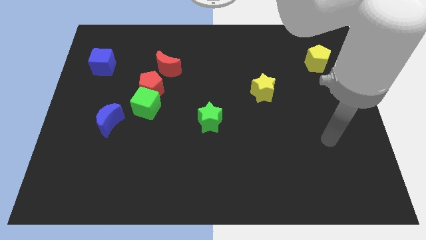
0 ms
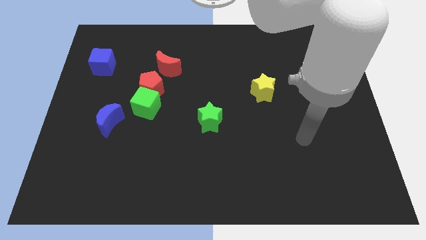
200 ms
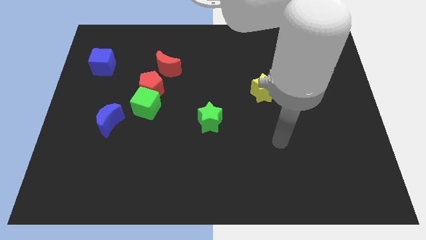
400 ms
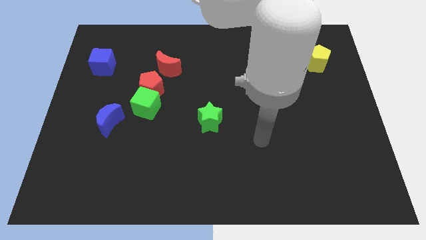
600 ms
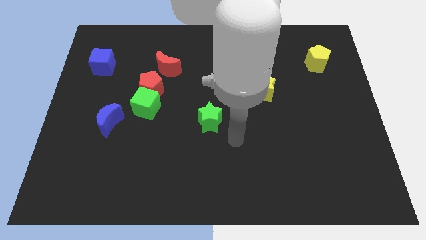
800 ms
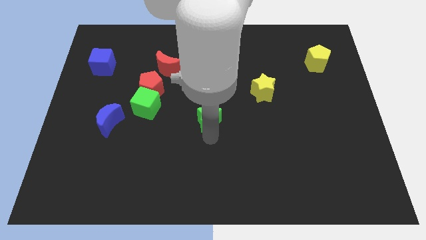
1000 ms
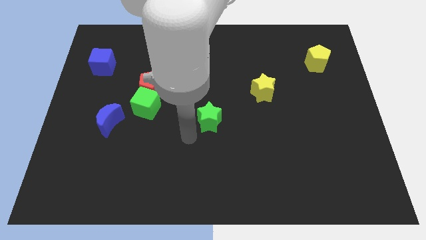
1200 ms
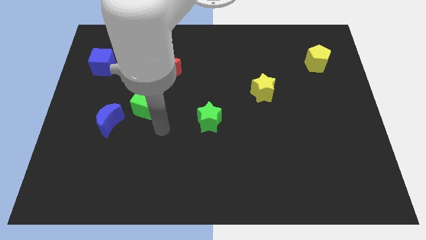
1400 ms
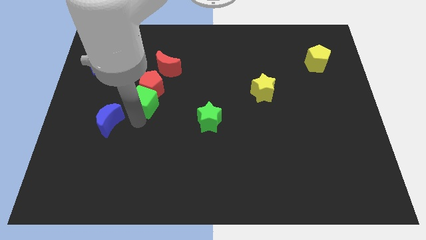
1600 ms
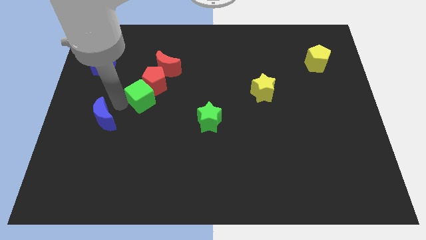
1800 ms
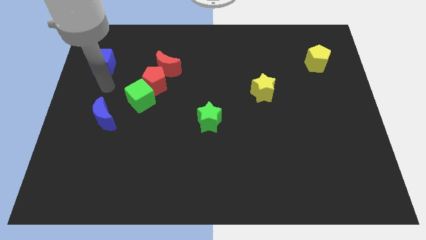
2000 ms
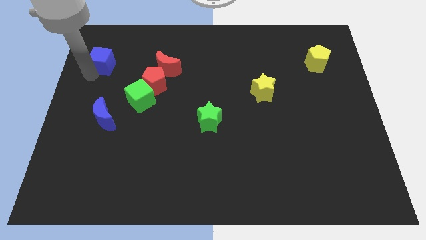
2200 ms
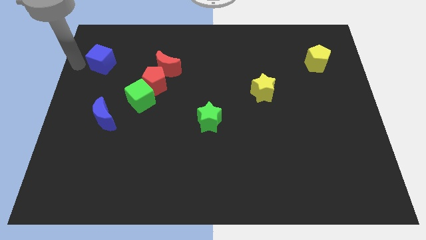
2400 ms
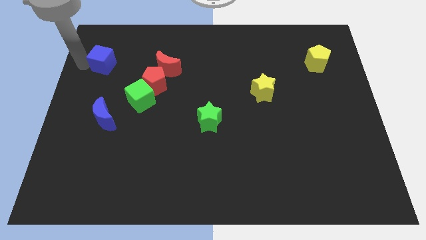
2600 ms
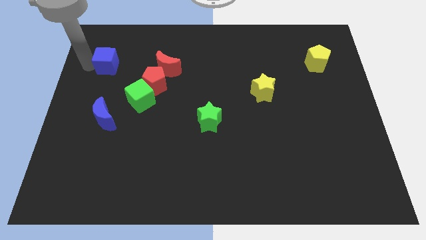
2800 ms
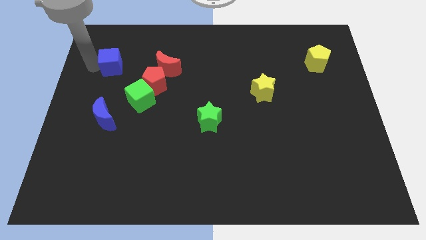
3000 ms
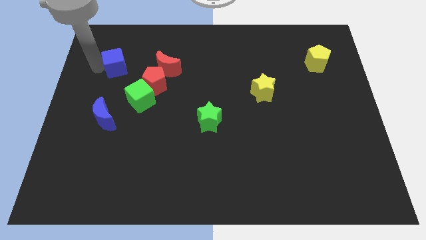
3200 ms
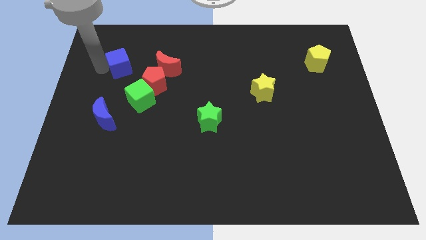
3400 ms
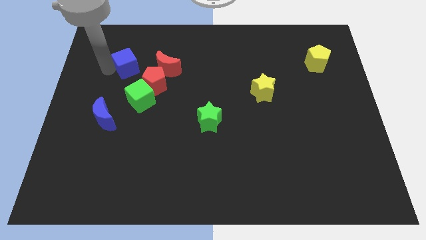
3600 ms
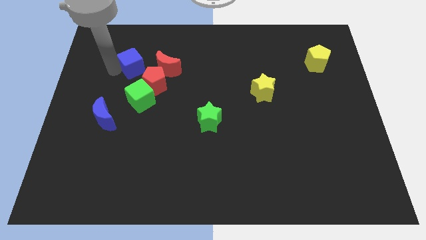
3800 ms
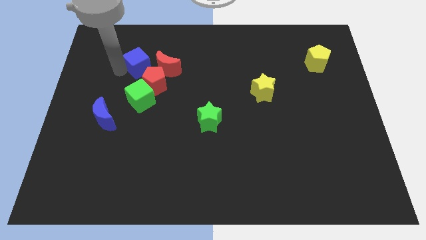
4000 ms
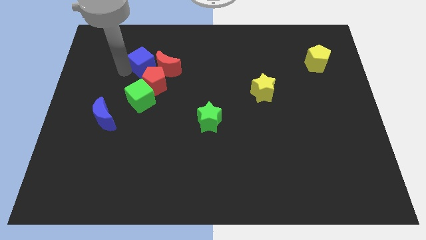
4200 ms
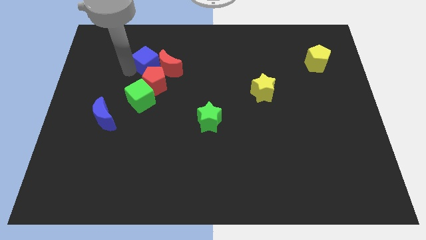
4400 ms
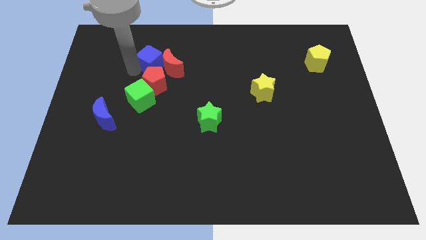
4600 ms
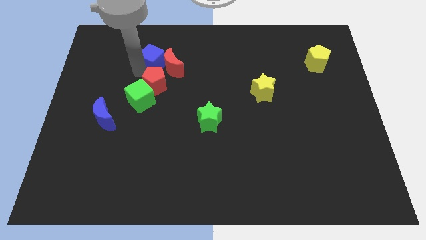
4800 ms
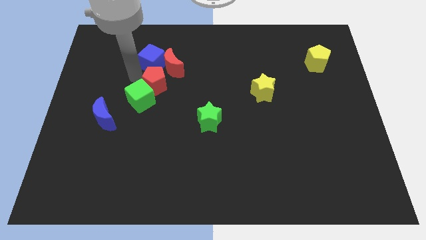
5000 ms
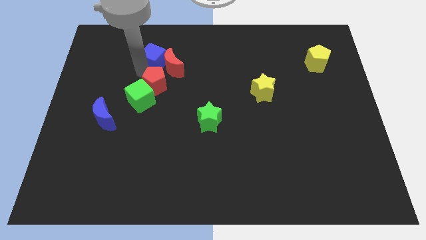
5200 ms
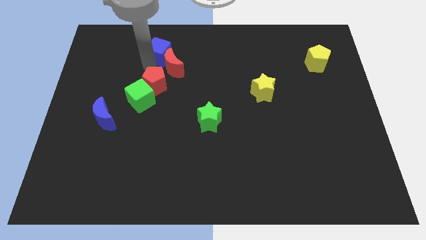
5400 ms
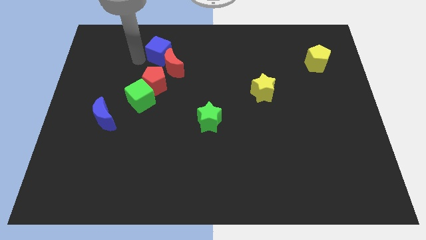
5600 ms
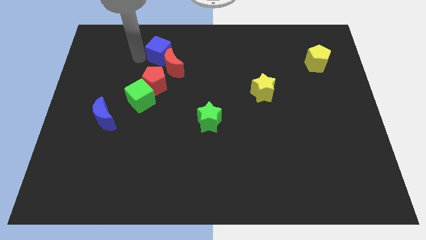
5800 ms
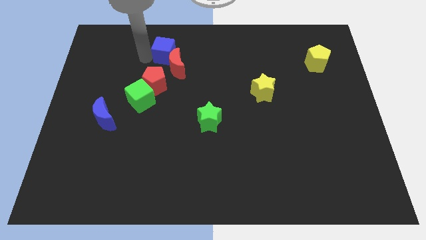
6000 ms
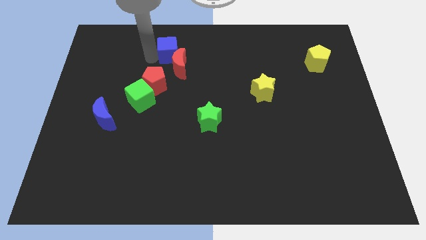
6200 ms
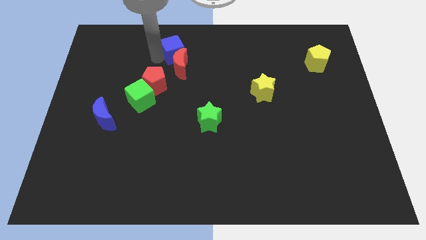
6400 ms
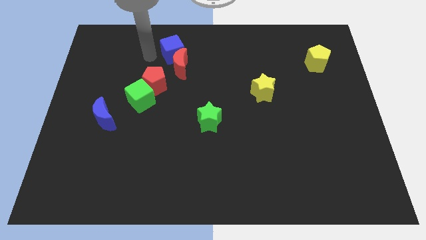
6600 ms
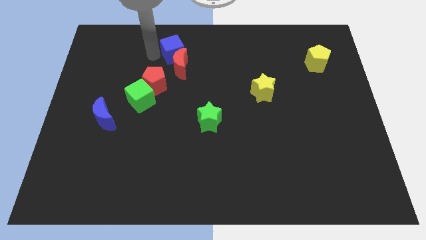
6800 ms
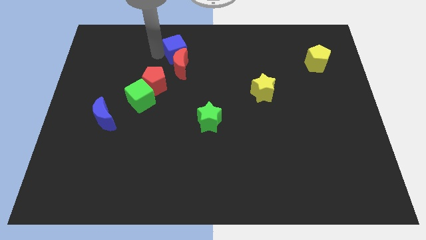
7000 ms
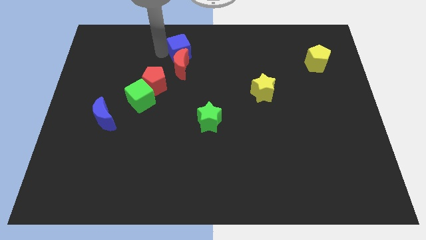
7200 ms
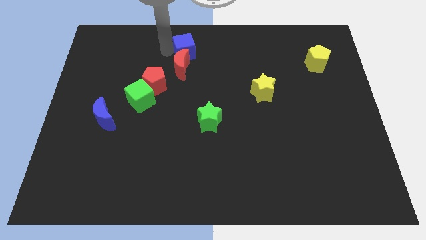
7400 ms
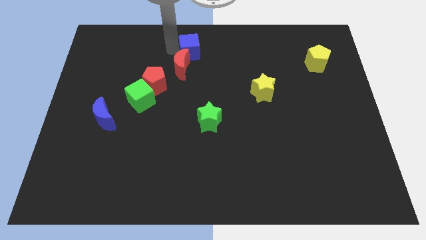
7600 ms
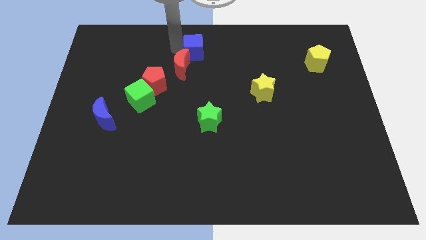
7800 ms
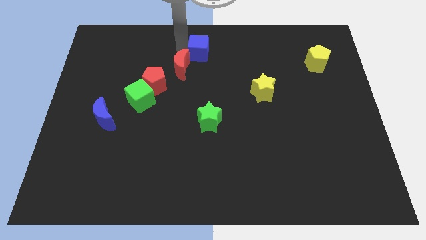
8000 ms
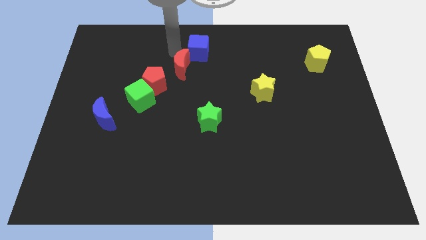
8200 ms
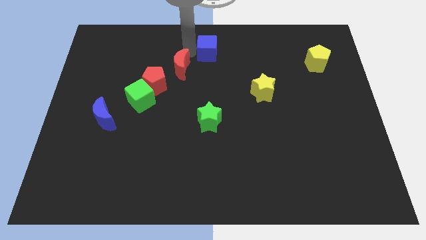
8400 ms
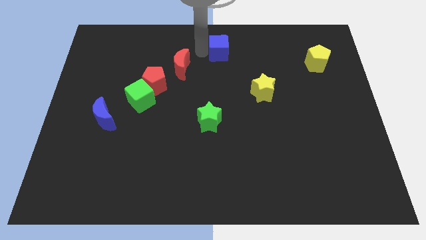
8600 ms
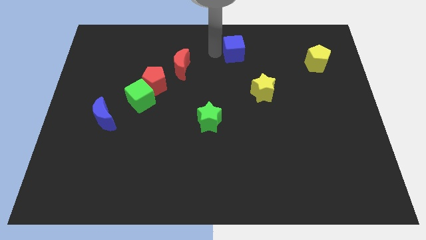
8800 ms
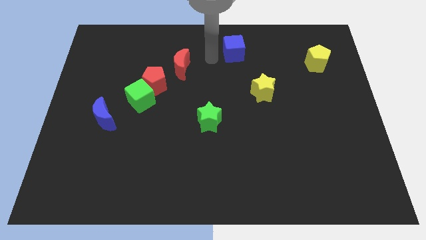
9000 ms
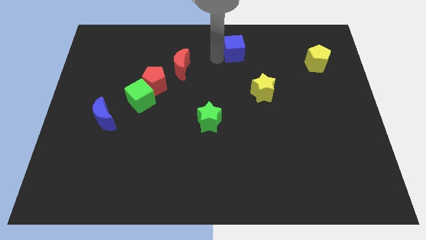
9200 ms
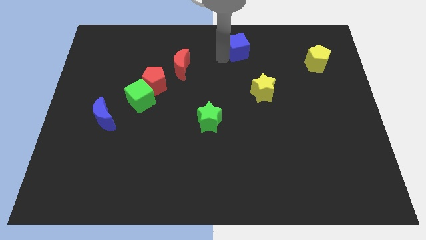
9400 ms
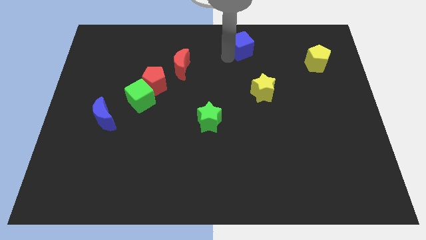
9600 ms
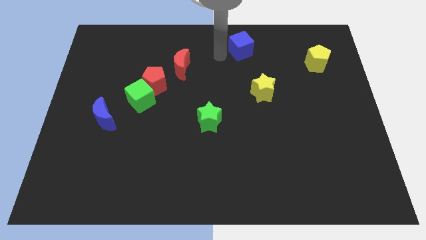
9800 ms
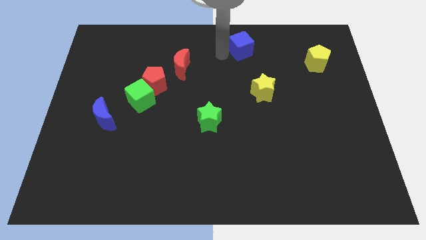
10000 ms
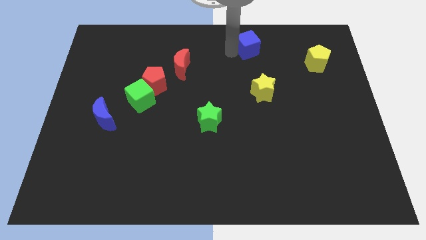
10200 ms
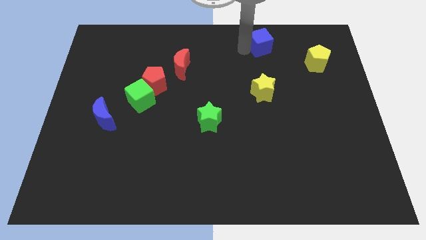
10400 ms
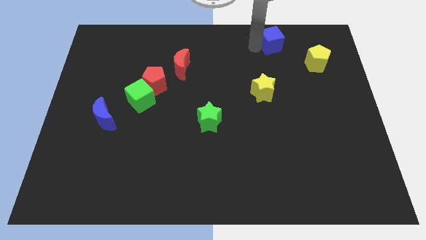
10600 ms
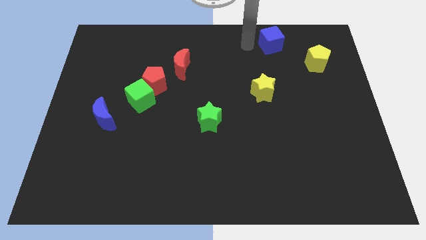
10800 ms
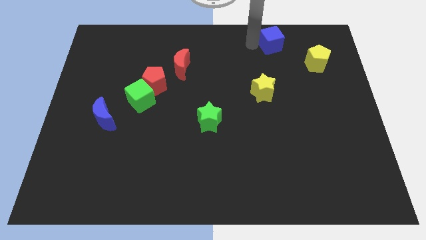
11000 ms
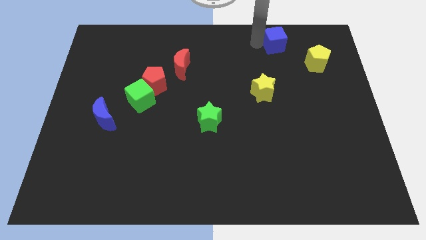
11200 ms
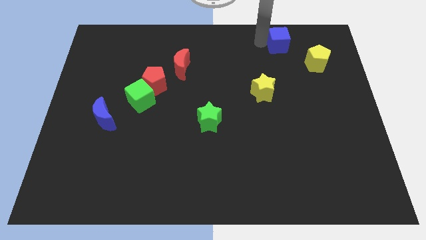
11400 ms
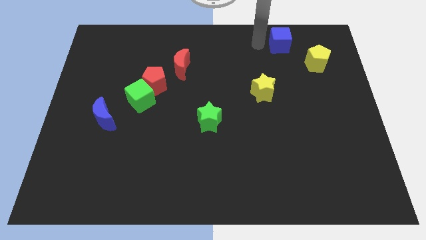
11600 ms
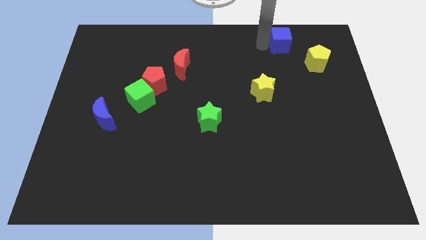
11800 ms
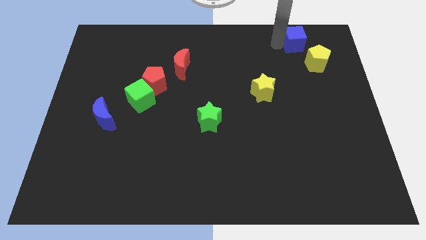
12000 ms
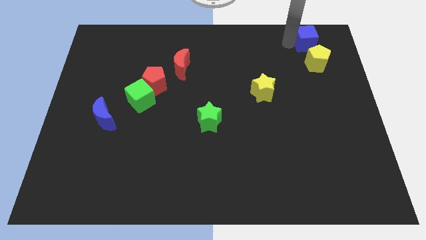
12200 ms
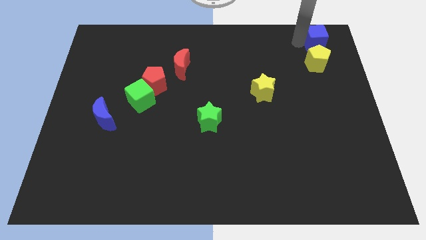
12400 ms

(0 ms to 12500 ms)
put the blue cube to the upper right corner
